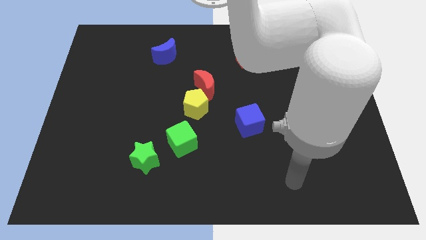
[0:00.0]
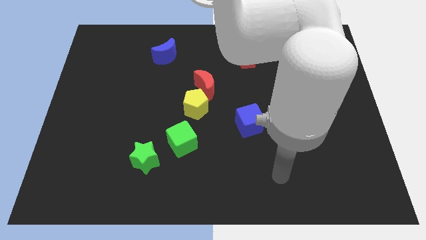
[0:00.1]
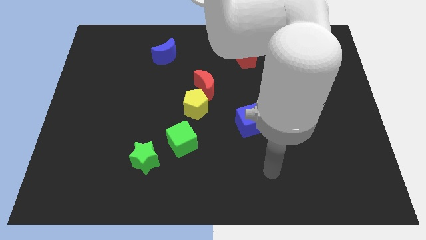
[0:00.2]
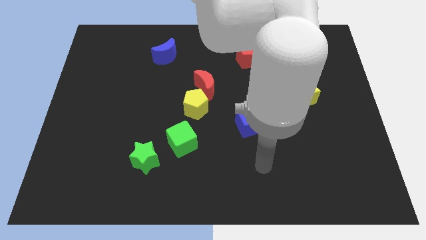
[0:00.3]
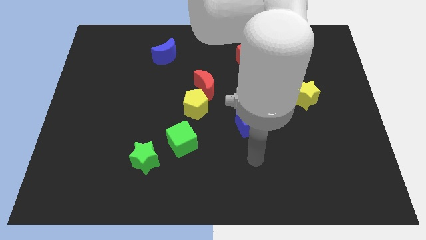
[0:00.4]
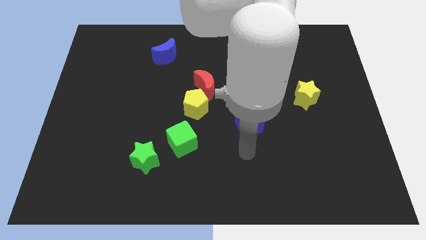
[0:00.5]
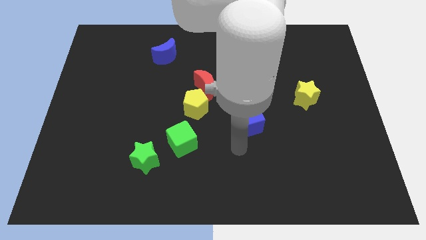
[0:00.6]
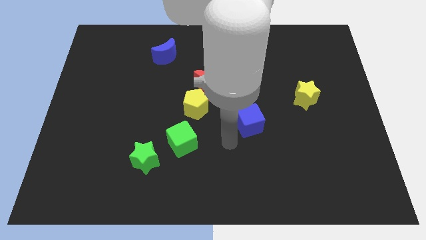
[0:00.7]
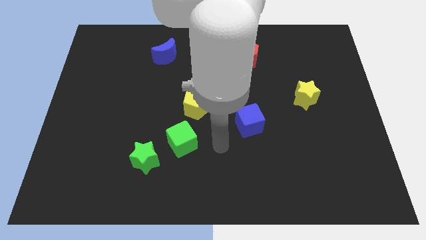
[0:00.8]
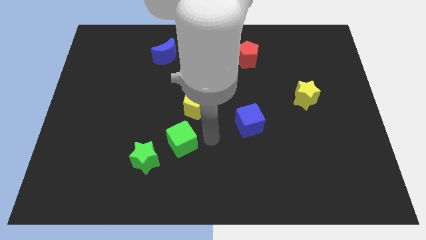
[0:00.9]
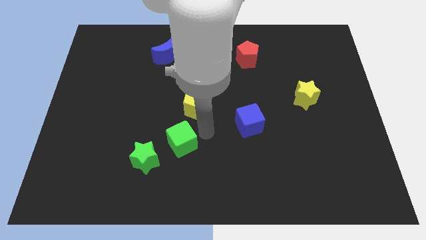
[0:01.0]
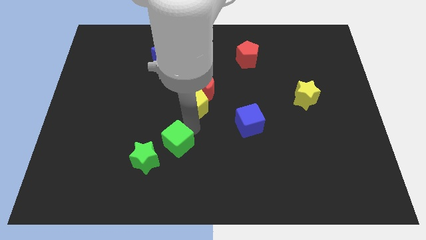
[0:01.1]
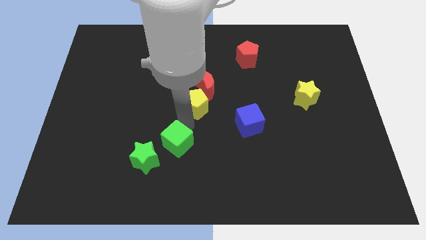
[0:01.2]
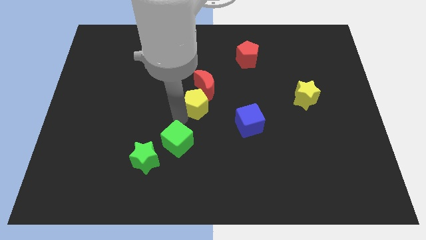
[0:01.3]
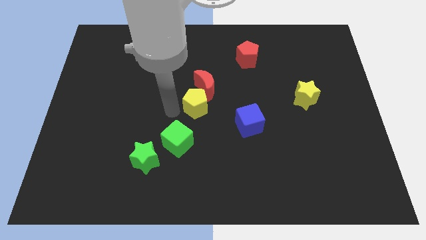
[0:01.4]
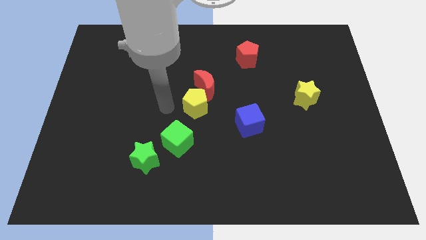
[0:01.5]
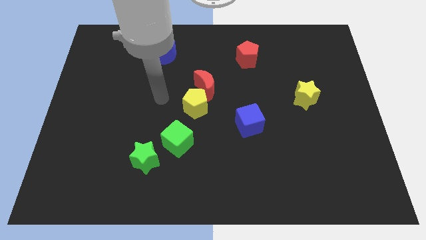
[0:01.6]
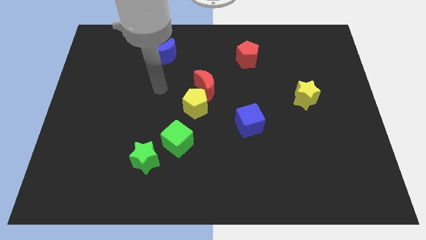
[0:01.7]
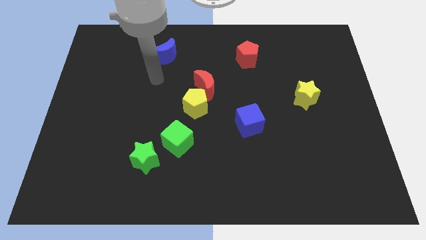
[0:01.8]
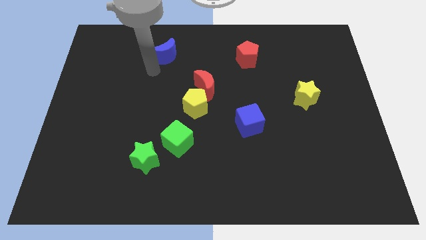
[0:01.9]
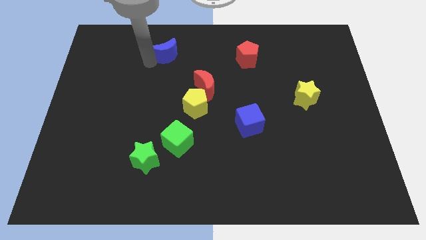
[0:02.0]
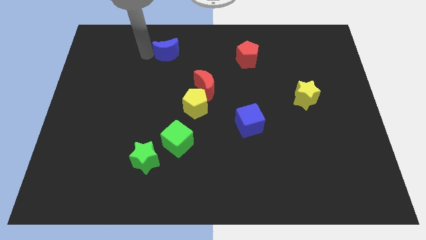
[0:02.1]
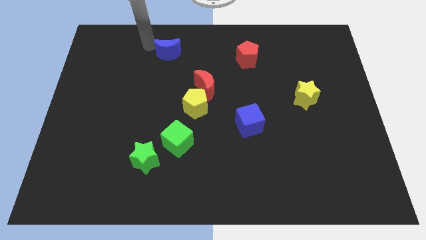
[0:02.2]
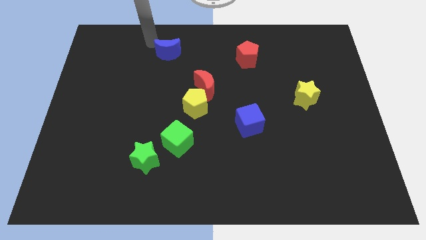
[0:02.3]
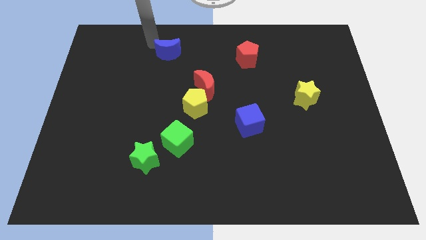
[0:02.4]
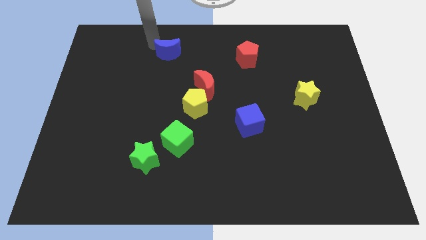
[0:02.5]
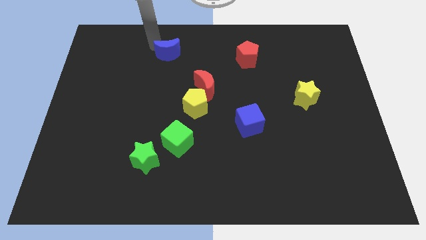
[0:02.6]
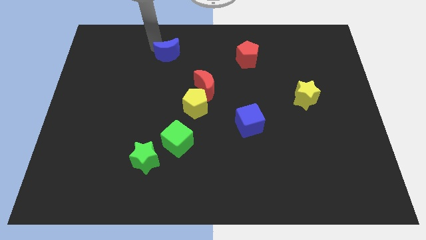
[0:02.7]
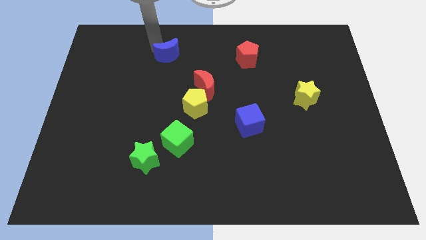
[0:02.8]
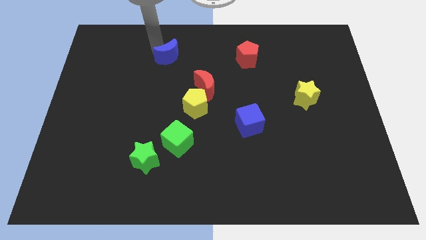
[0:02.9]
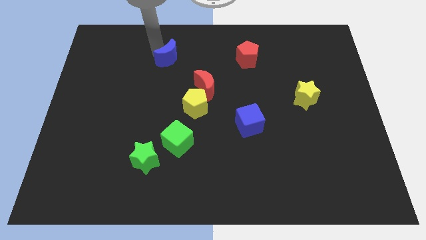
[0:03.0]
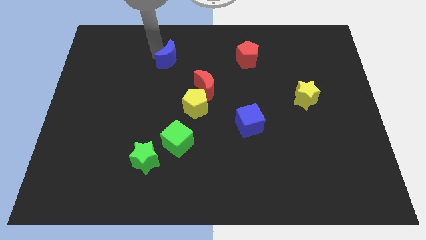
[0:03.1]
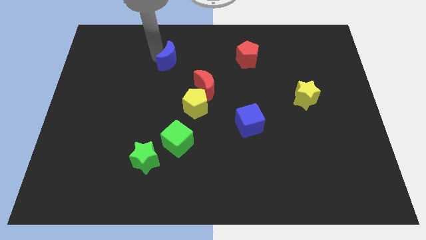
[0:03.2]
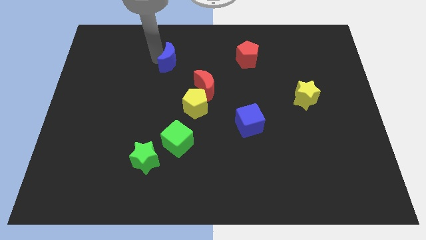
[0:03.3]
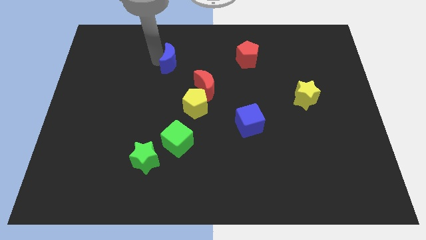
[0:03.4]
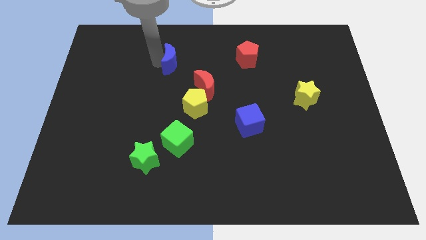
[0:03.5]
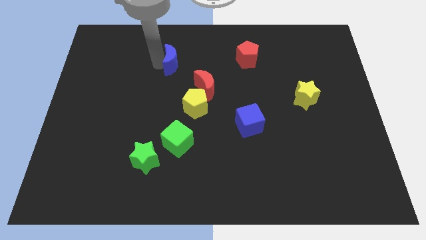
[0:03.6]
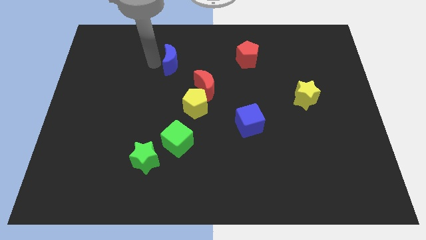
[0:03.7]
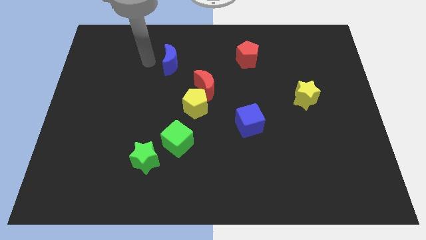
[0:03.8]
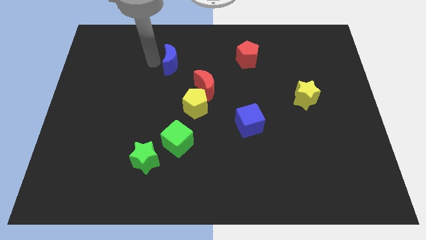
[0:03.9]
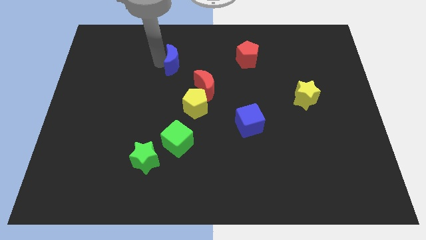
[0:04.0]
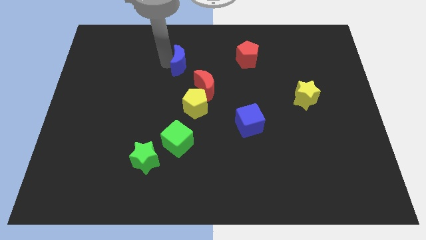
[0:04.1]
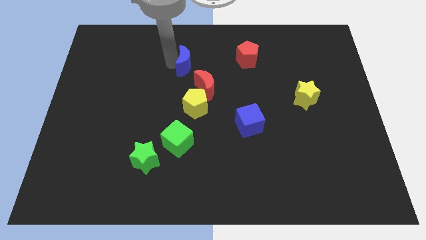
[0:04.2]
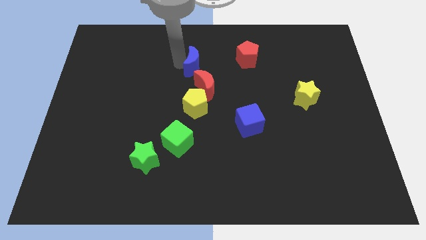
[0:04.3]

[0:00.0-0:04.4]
push the blue moon somewhat downwards and then right

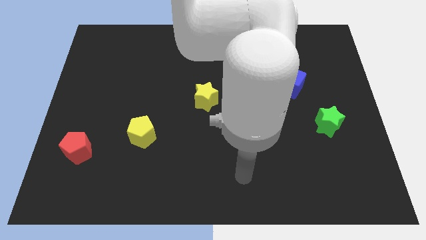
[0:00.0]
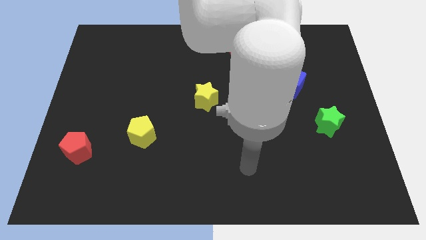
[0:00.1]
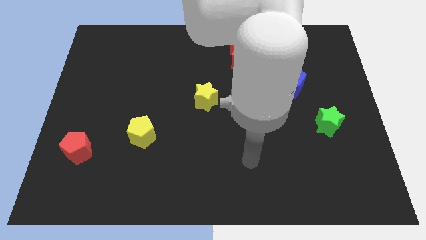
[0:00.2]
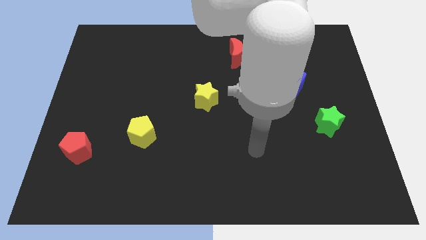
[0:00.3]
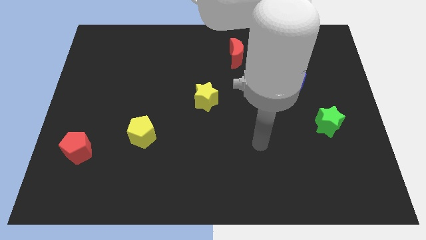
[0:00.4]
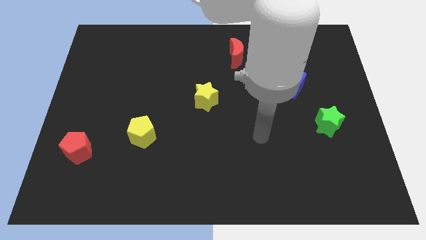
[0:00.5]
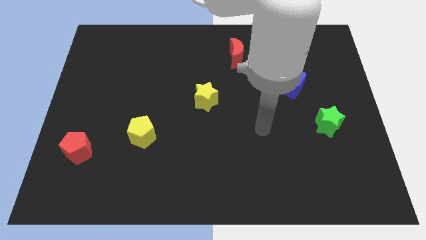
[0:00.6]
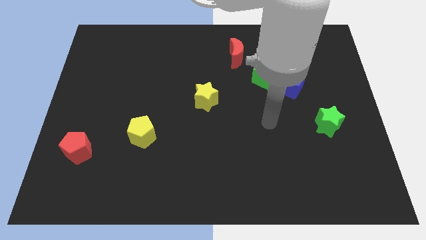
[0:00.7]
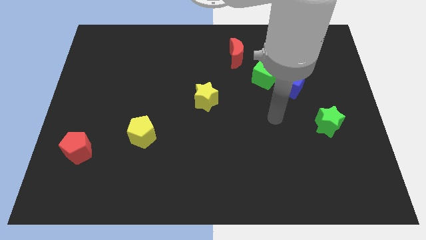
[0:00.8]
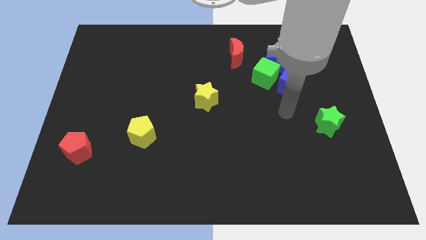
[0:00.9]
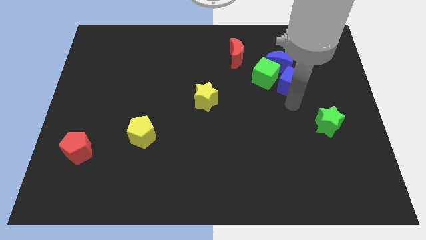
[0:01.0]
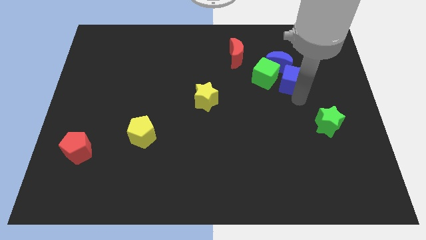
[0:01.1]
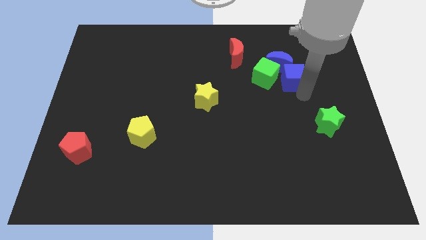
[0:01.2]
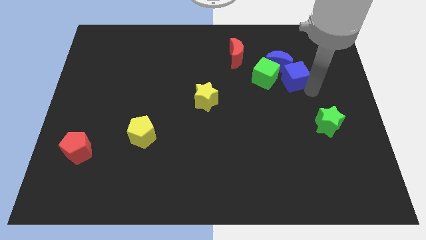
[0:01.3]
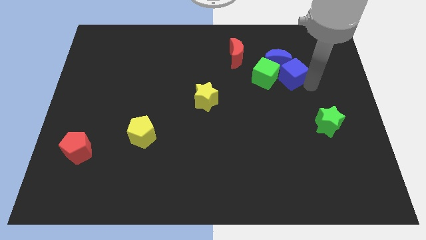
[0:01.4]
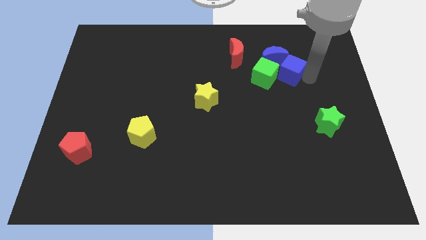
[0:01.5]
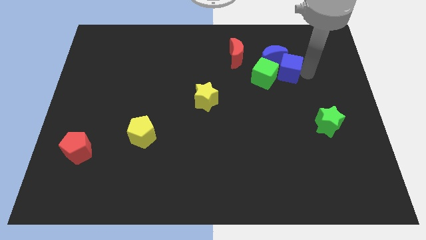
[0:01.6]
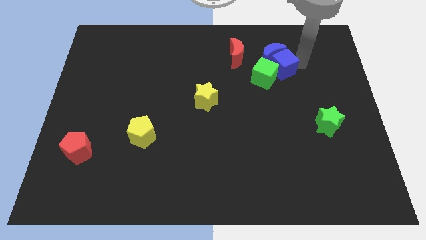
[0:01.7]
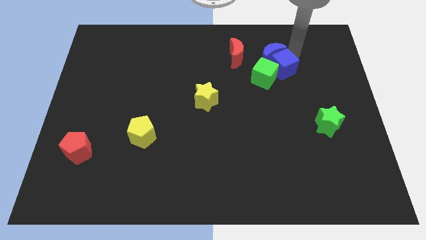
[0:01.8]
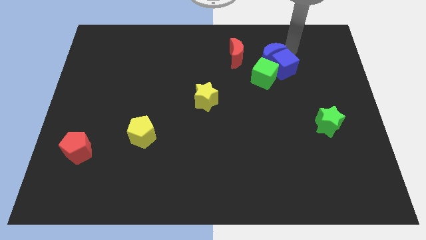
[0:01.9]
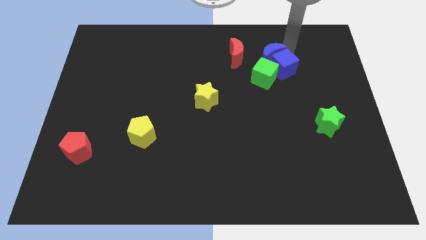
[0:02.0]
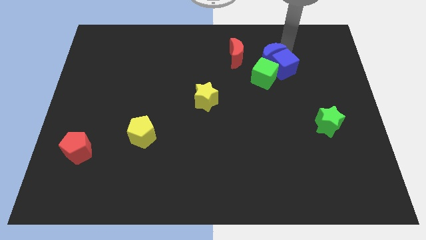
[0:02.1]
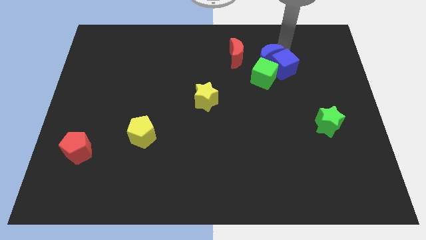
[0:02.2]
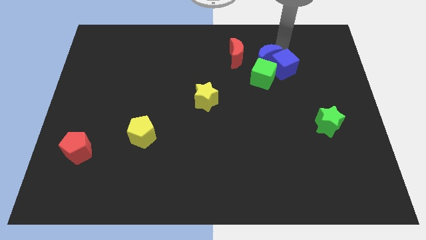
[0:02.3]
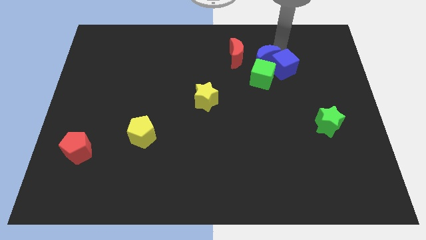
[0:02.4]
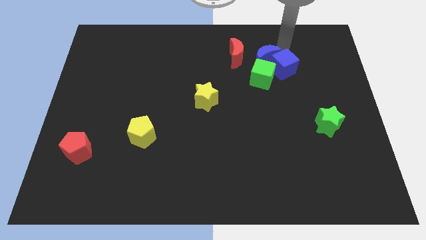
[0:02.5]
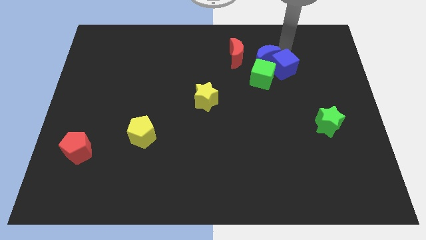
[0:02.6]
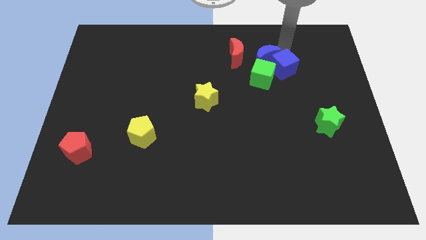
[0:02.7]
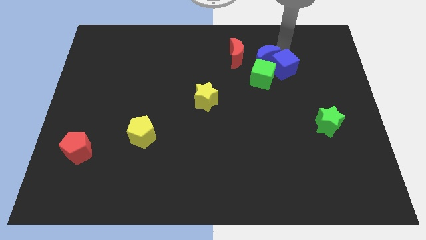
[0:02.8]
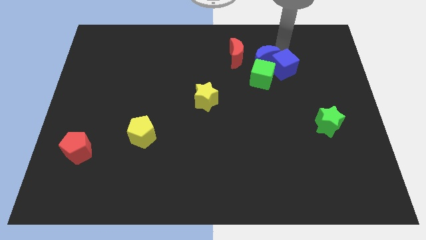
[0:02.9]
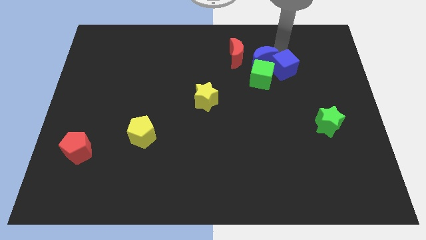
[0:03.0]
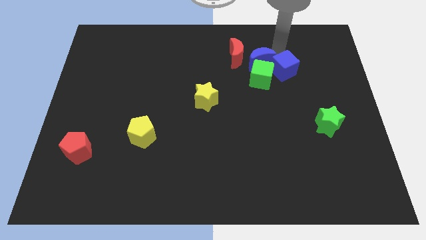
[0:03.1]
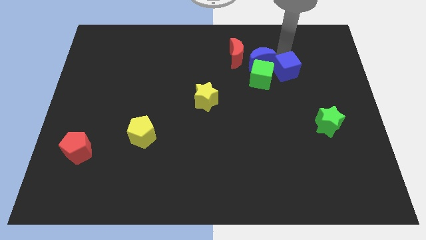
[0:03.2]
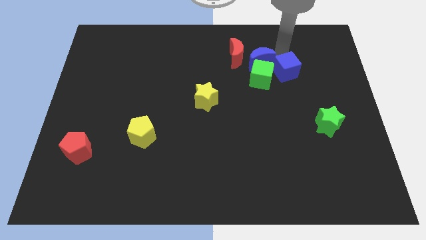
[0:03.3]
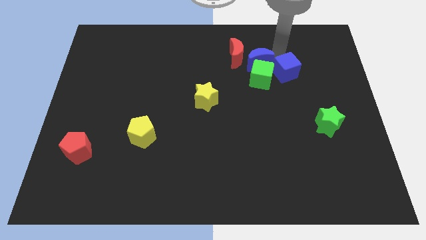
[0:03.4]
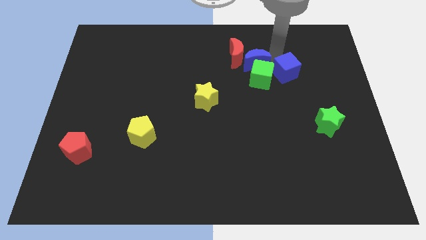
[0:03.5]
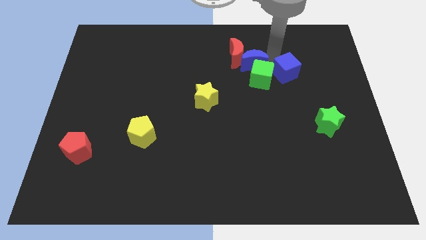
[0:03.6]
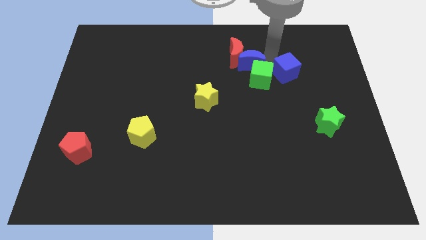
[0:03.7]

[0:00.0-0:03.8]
slightly push the blue moon to the left
